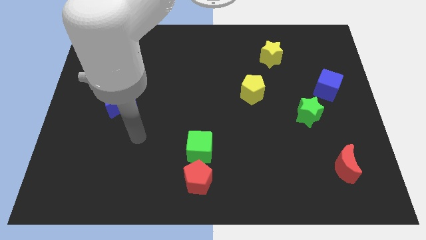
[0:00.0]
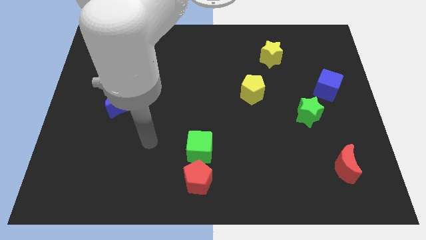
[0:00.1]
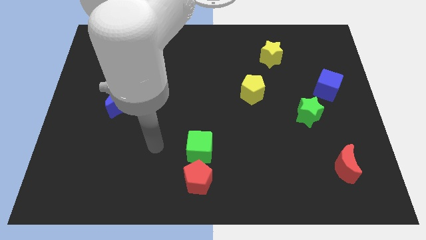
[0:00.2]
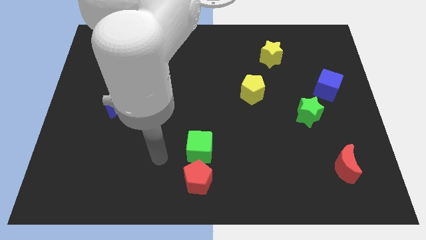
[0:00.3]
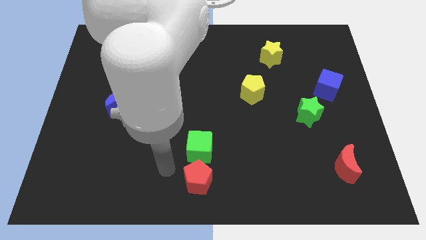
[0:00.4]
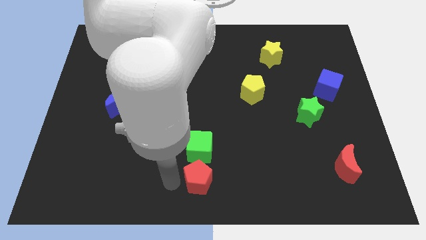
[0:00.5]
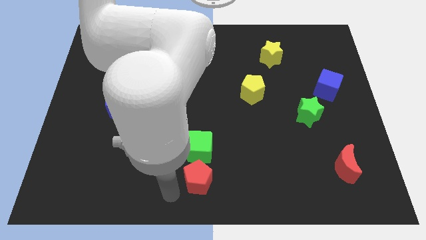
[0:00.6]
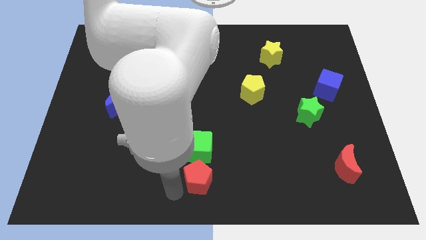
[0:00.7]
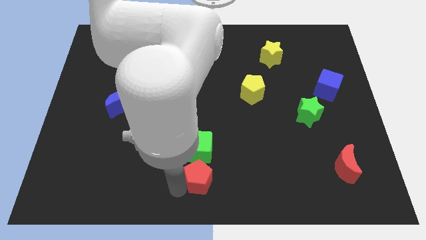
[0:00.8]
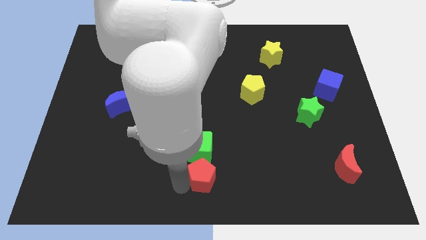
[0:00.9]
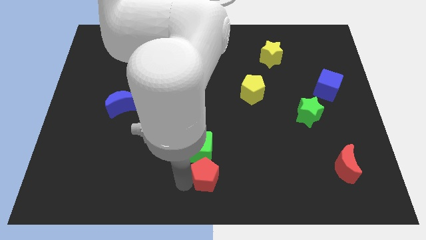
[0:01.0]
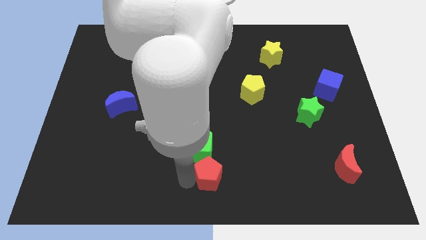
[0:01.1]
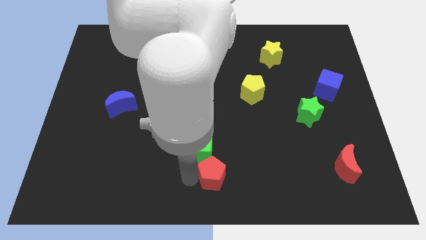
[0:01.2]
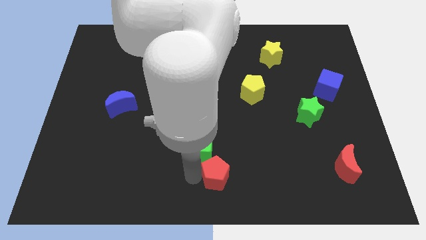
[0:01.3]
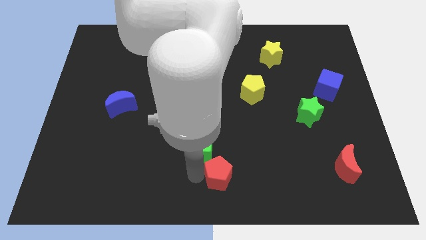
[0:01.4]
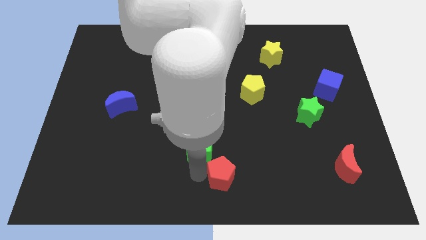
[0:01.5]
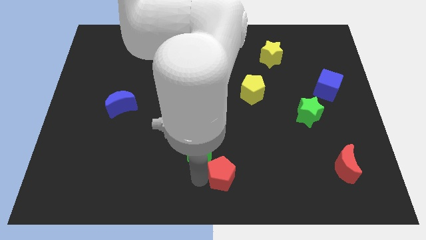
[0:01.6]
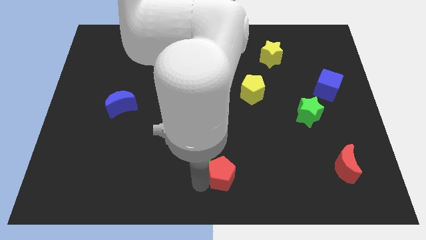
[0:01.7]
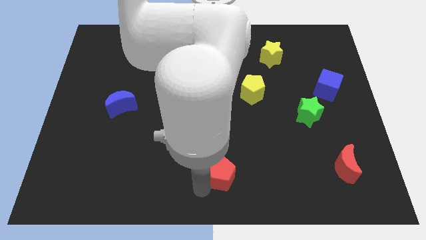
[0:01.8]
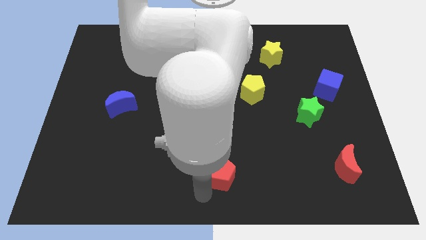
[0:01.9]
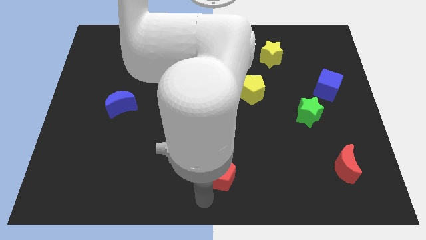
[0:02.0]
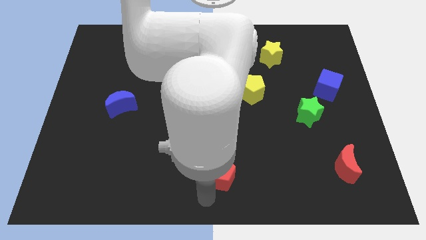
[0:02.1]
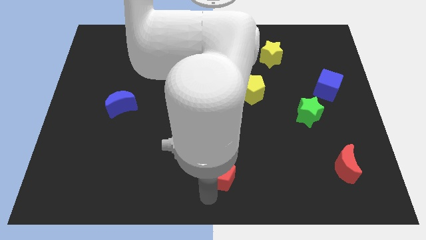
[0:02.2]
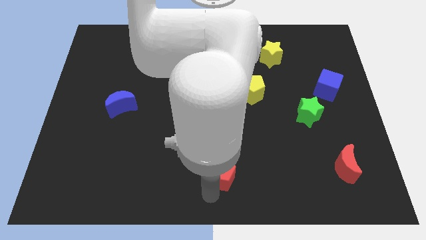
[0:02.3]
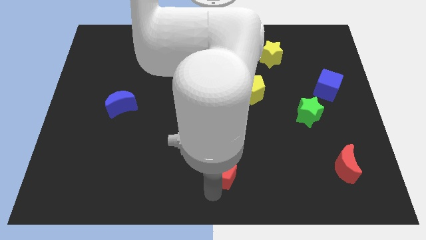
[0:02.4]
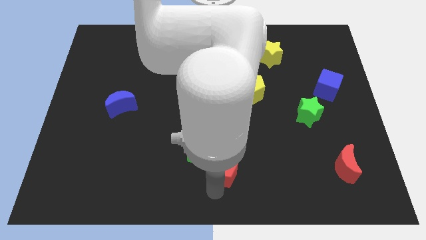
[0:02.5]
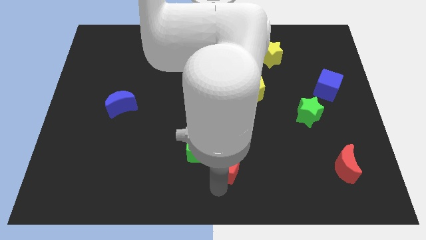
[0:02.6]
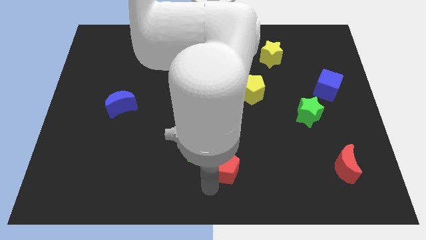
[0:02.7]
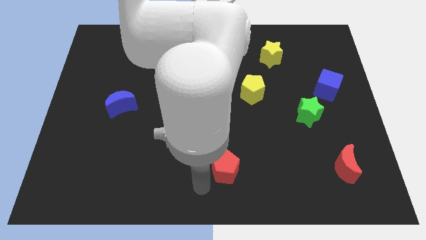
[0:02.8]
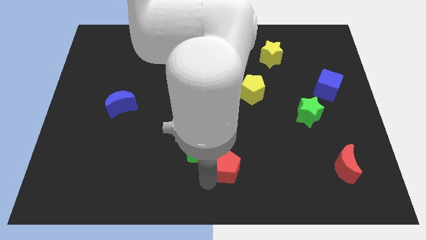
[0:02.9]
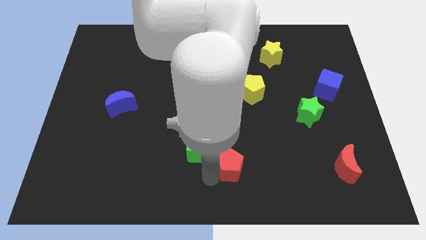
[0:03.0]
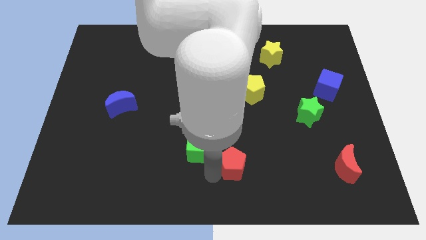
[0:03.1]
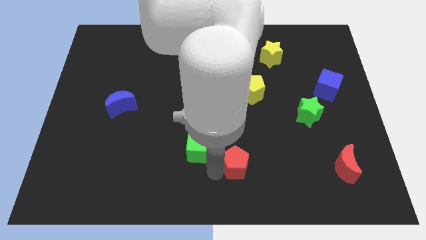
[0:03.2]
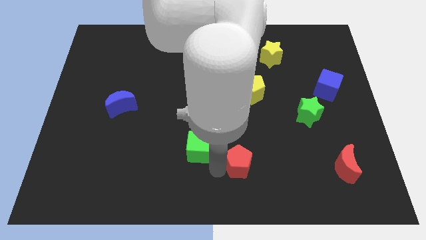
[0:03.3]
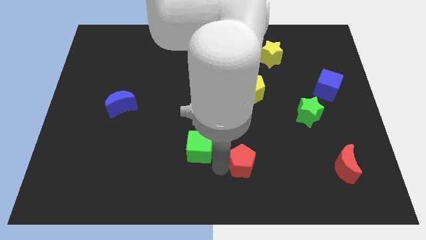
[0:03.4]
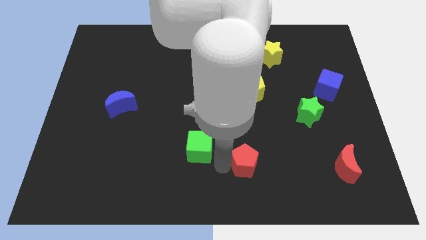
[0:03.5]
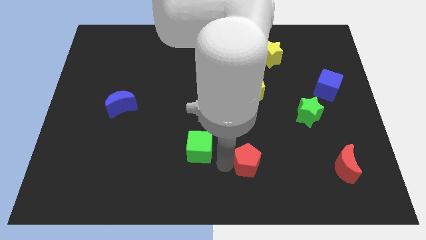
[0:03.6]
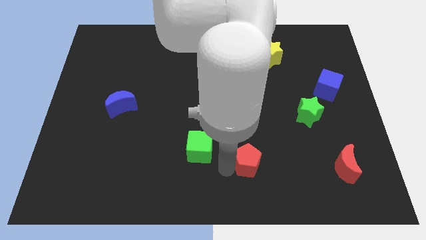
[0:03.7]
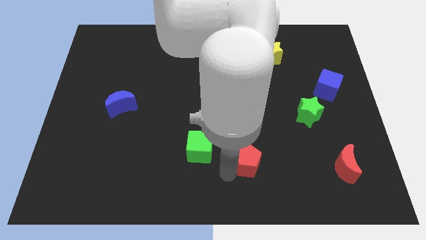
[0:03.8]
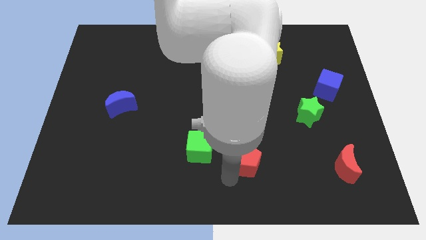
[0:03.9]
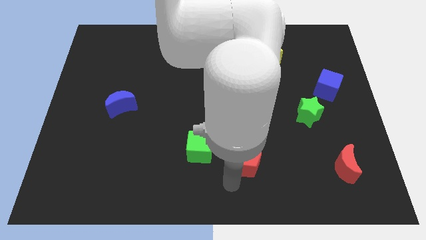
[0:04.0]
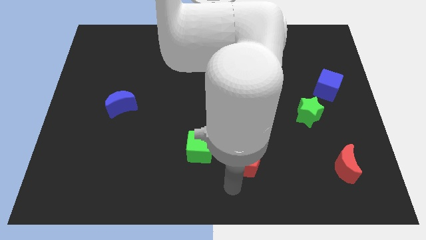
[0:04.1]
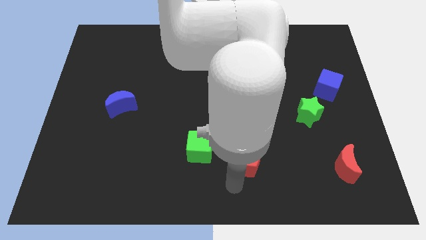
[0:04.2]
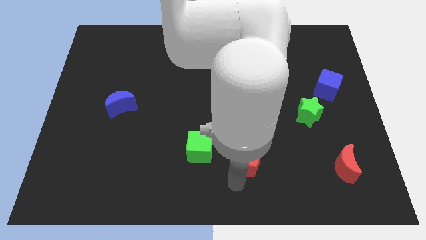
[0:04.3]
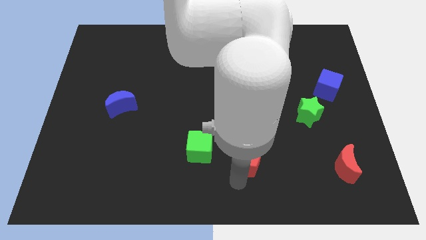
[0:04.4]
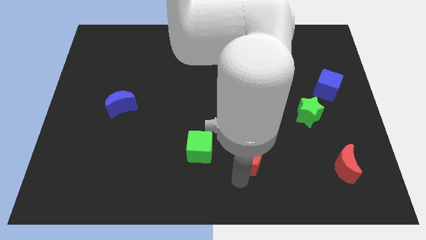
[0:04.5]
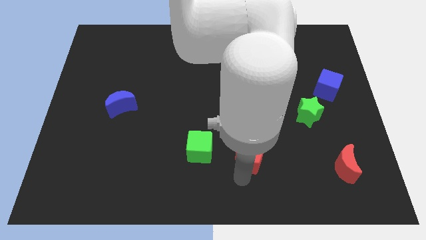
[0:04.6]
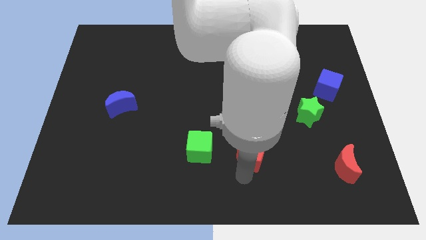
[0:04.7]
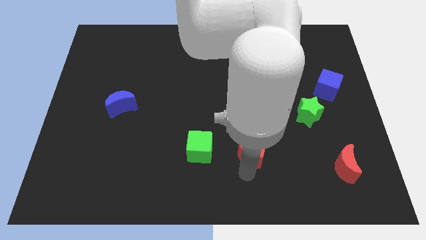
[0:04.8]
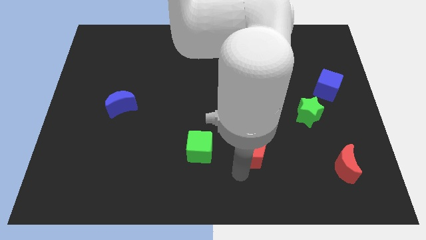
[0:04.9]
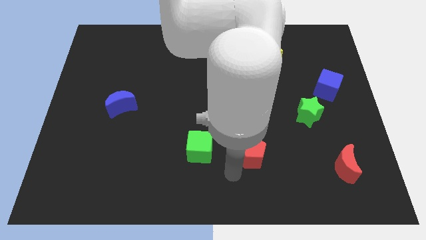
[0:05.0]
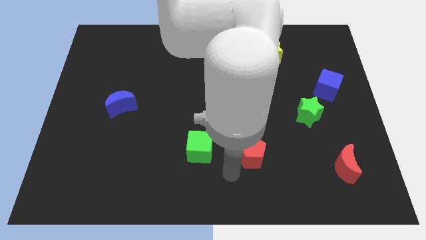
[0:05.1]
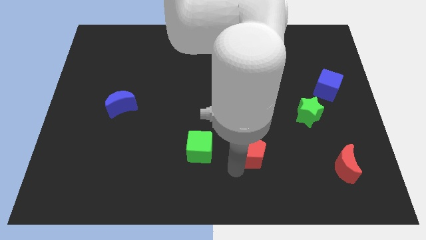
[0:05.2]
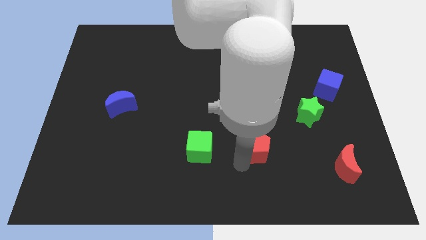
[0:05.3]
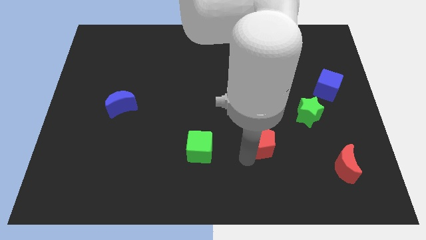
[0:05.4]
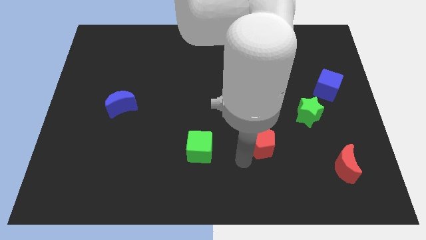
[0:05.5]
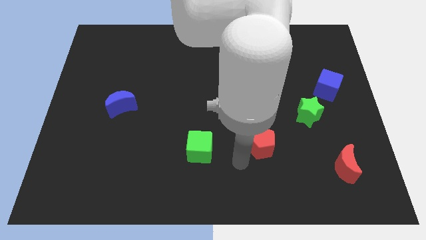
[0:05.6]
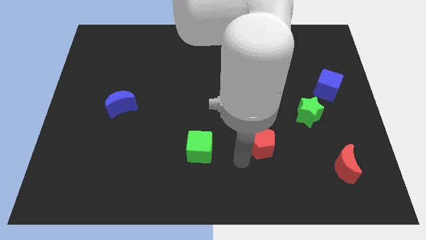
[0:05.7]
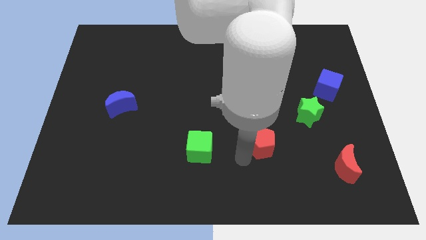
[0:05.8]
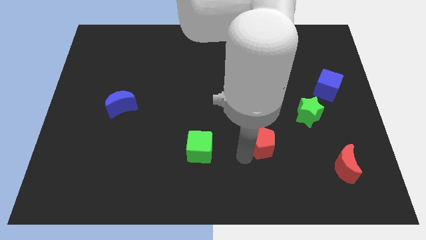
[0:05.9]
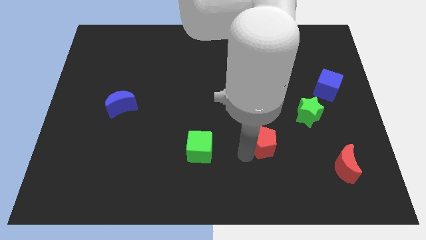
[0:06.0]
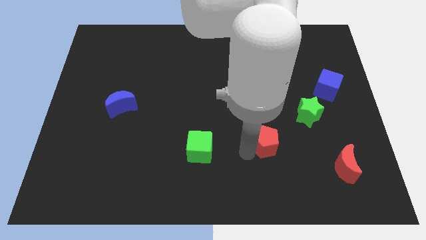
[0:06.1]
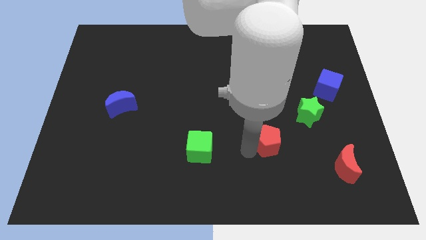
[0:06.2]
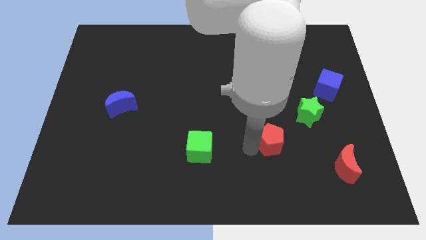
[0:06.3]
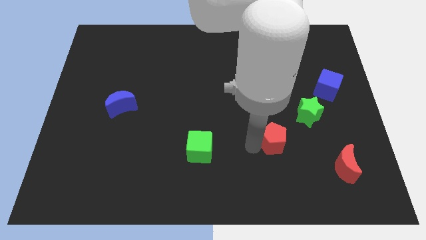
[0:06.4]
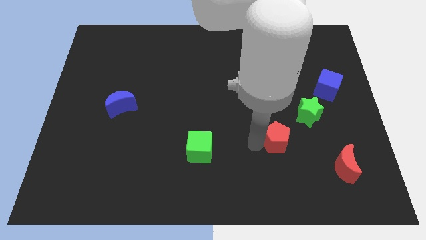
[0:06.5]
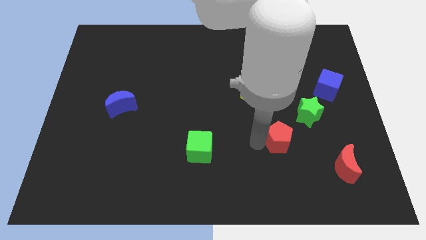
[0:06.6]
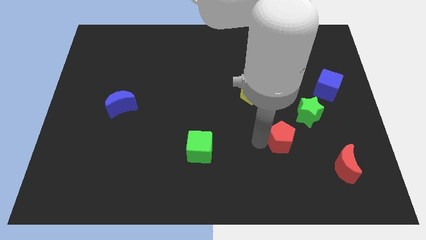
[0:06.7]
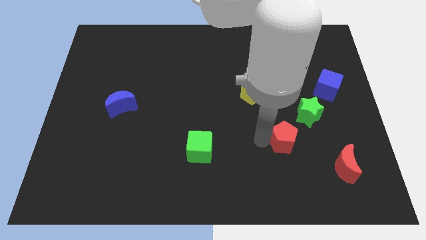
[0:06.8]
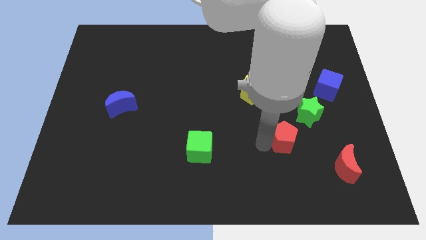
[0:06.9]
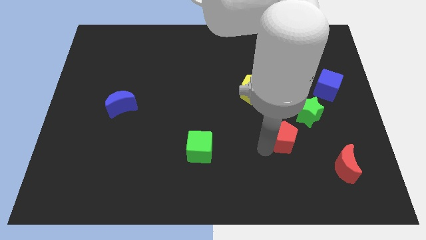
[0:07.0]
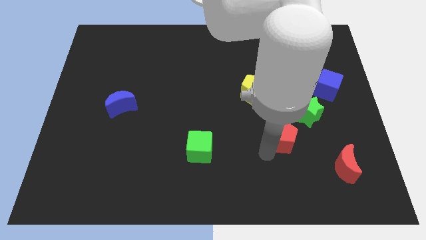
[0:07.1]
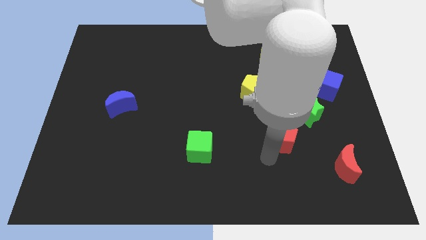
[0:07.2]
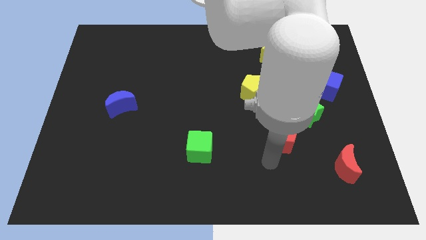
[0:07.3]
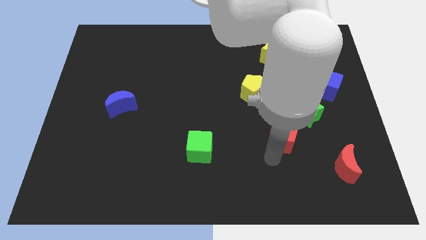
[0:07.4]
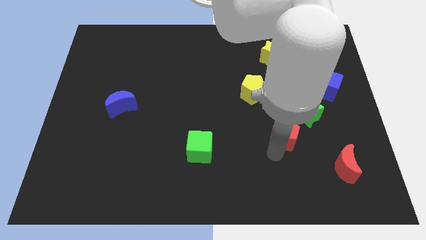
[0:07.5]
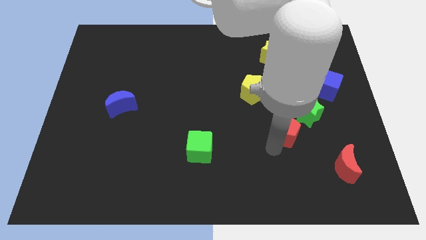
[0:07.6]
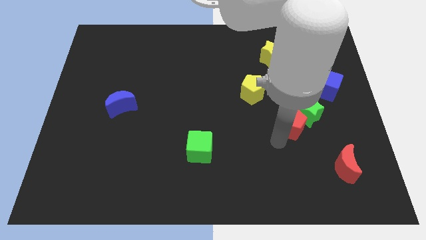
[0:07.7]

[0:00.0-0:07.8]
move the red pentagon towards the green star
